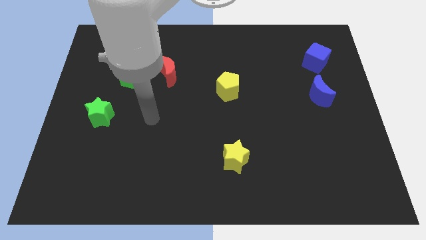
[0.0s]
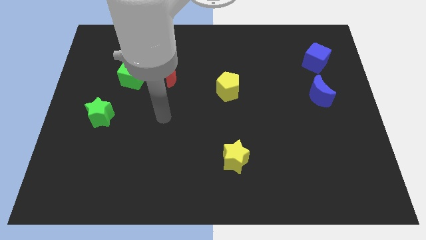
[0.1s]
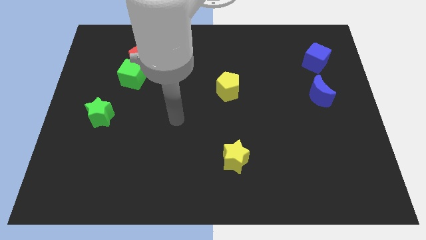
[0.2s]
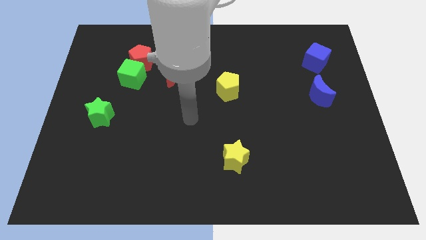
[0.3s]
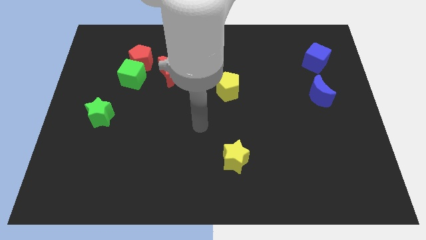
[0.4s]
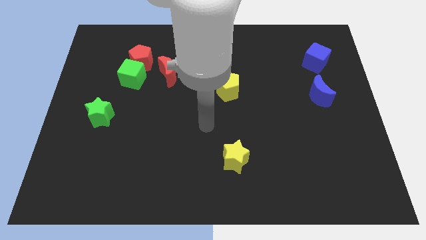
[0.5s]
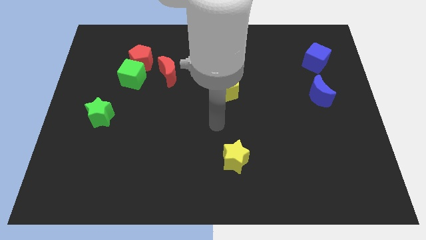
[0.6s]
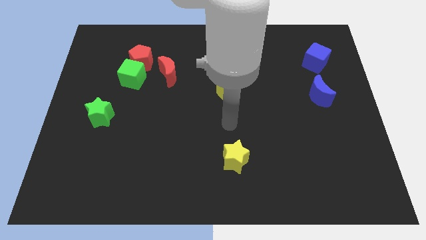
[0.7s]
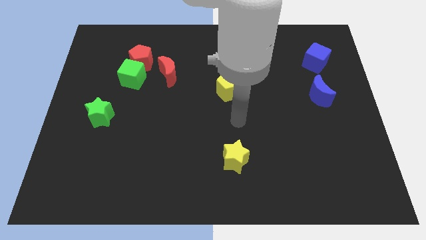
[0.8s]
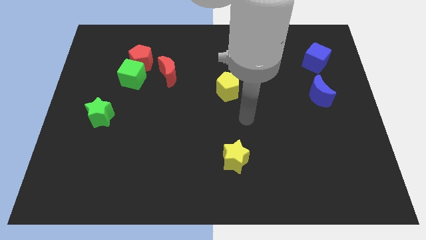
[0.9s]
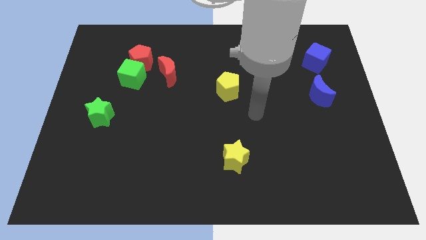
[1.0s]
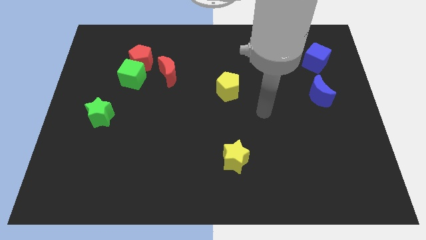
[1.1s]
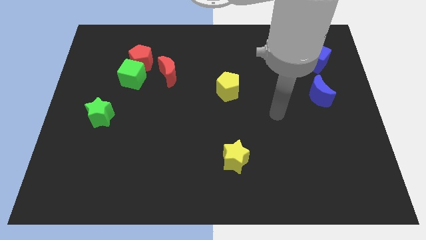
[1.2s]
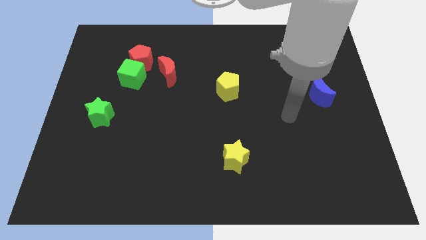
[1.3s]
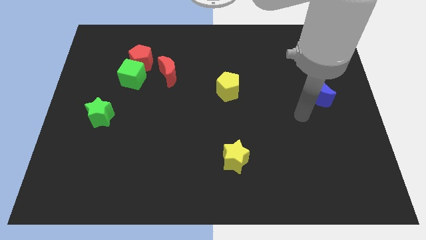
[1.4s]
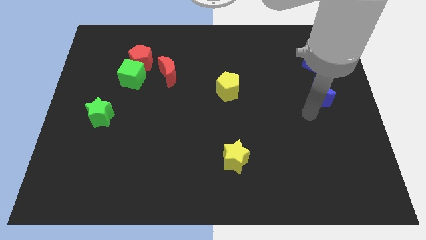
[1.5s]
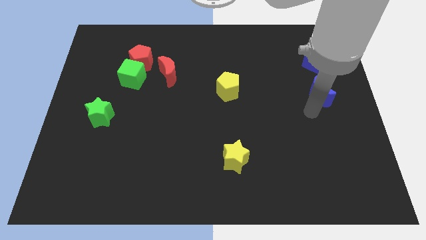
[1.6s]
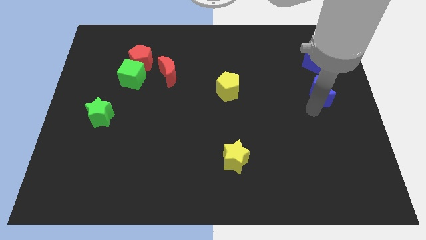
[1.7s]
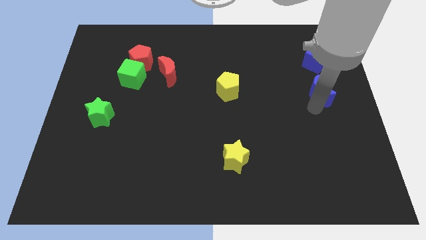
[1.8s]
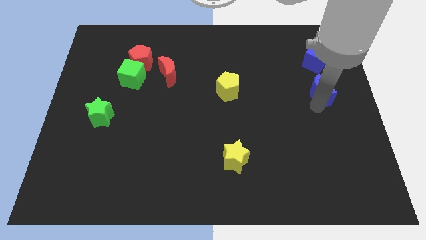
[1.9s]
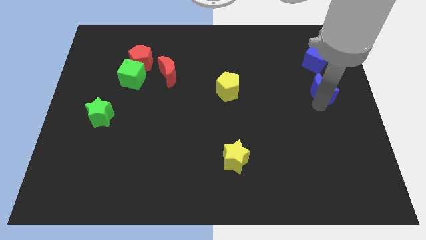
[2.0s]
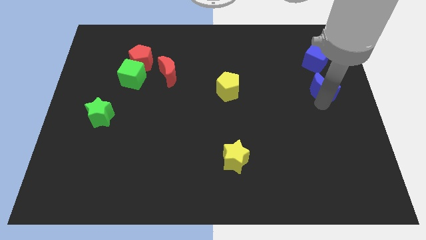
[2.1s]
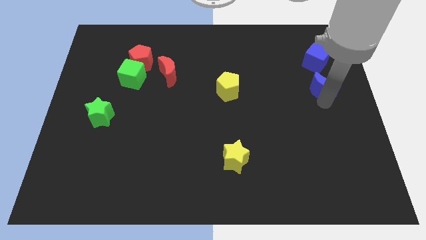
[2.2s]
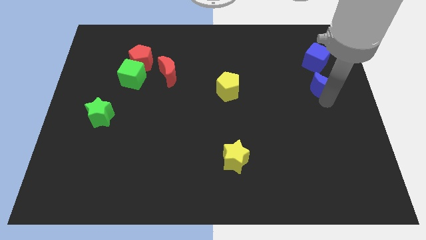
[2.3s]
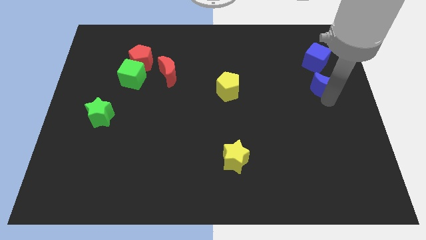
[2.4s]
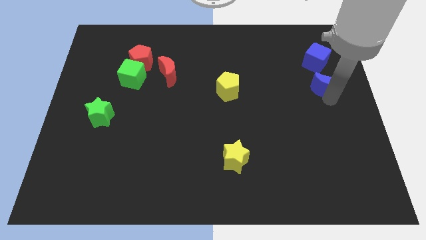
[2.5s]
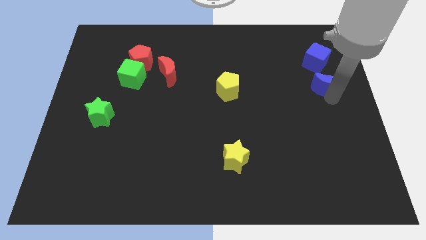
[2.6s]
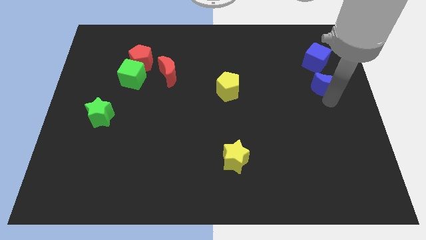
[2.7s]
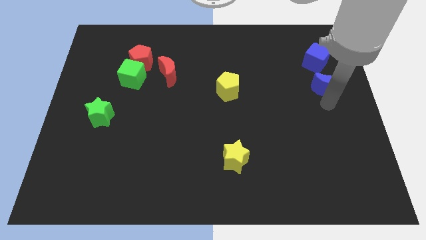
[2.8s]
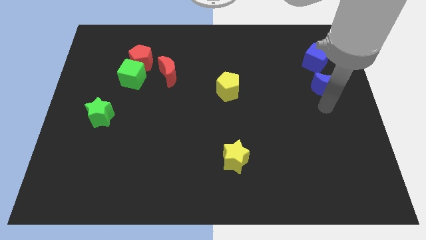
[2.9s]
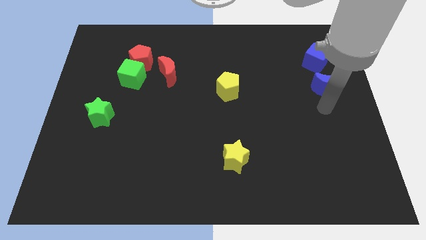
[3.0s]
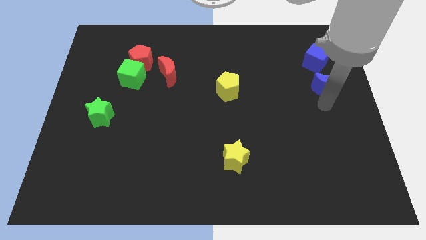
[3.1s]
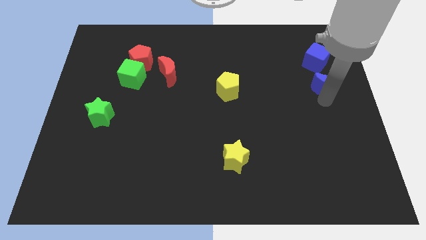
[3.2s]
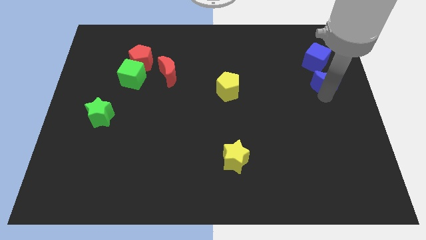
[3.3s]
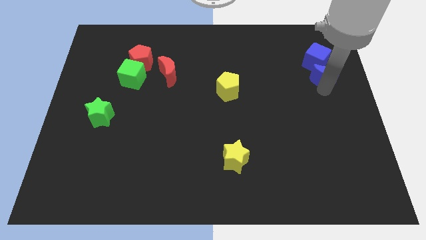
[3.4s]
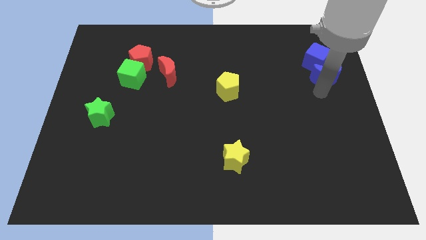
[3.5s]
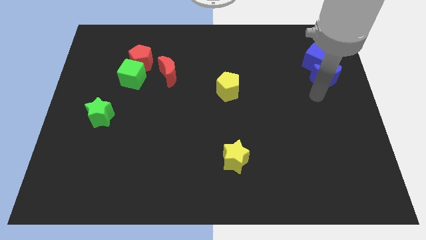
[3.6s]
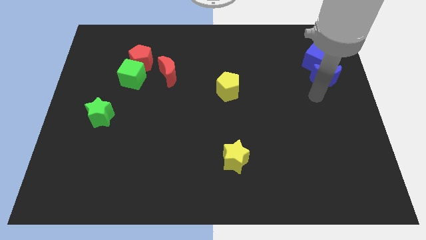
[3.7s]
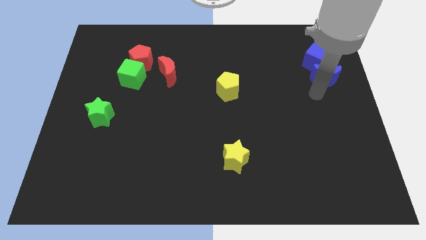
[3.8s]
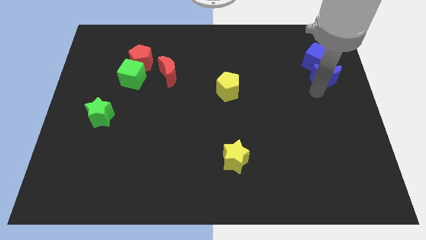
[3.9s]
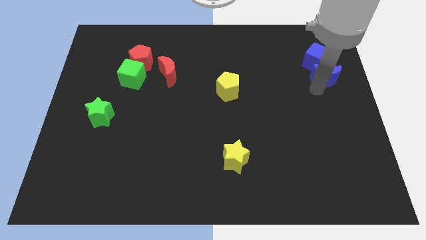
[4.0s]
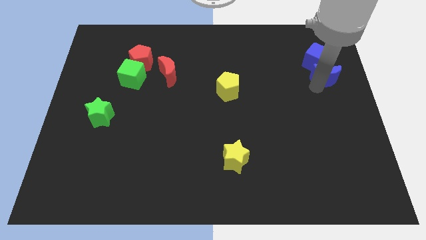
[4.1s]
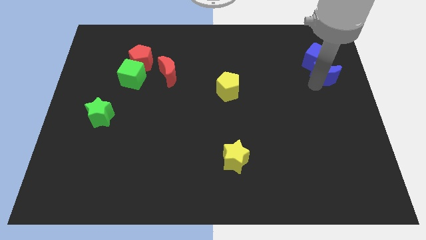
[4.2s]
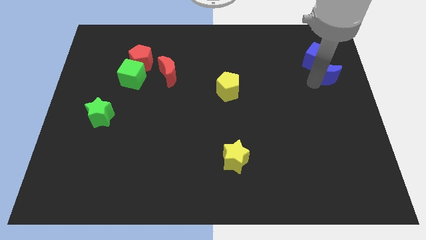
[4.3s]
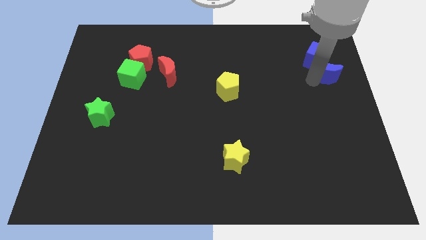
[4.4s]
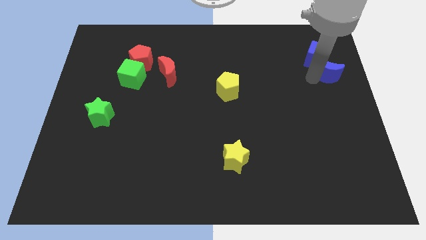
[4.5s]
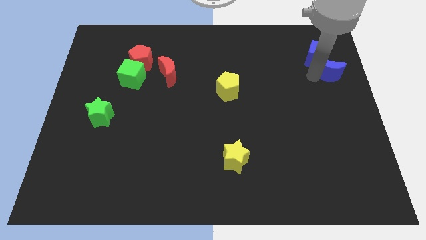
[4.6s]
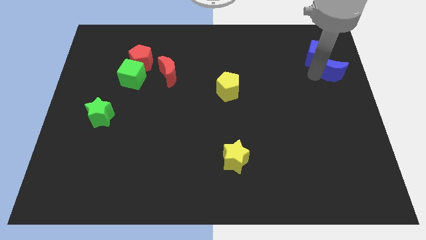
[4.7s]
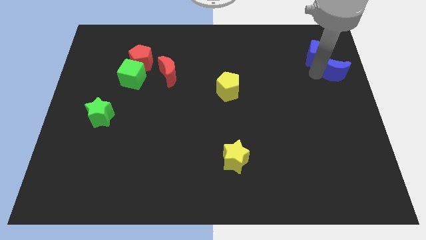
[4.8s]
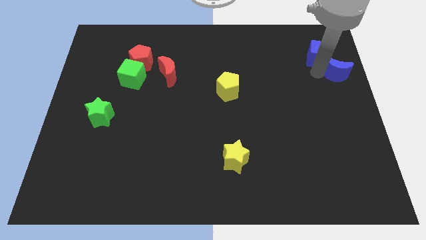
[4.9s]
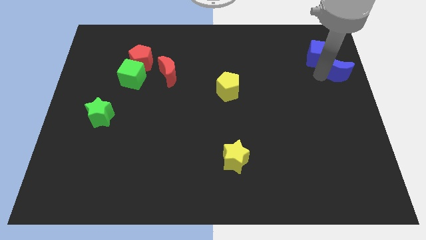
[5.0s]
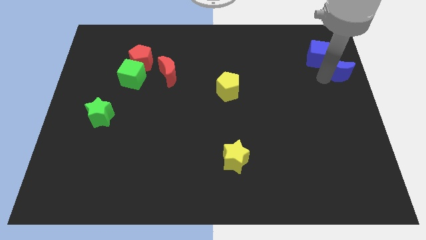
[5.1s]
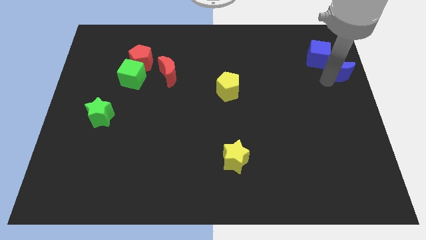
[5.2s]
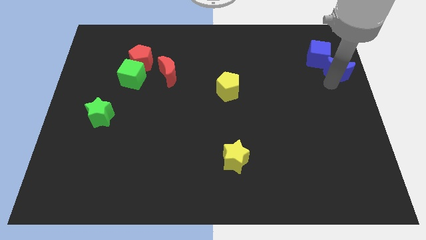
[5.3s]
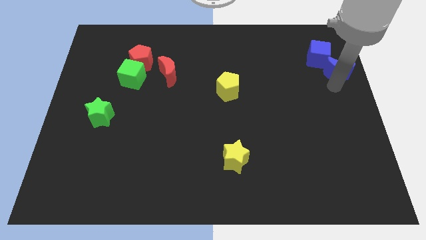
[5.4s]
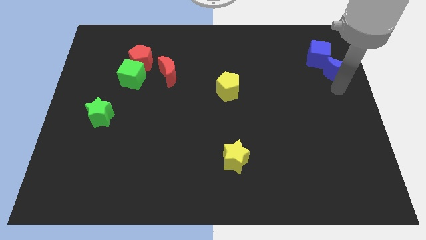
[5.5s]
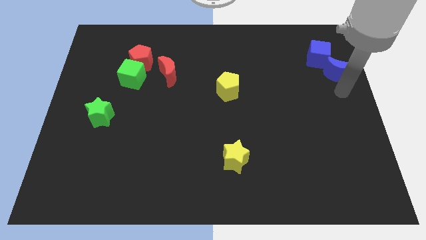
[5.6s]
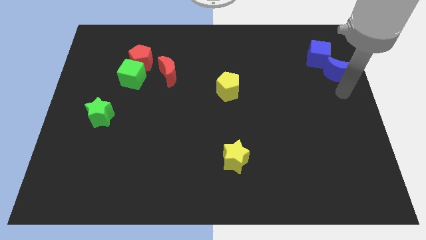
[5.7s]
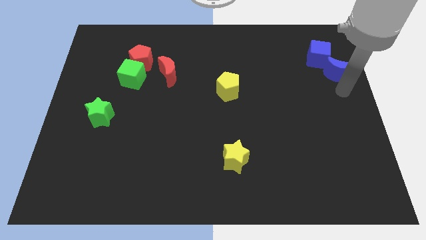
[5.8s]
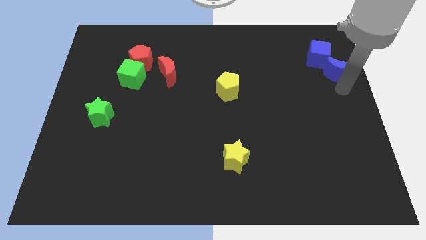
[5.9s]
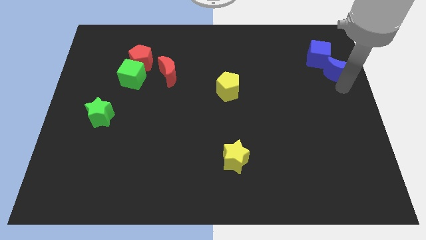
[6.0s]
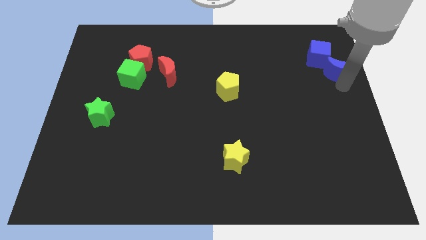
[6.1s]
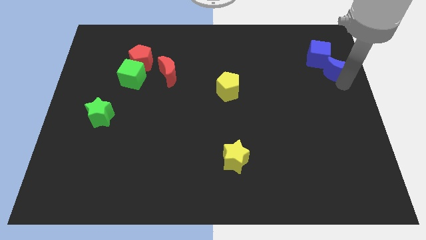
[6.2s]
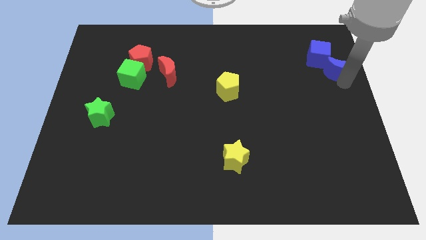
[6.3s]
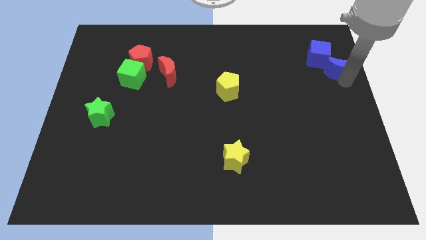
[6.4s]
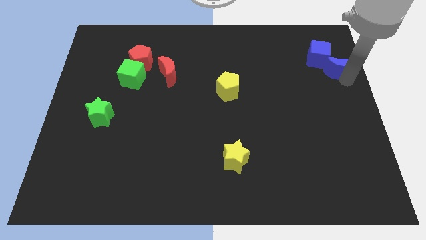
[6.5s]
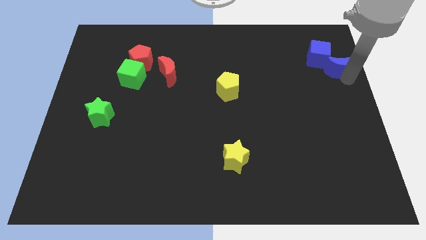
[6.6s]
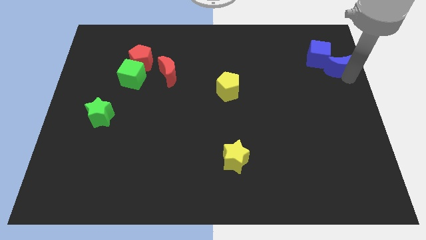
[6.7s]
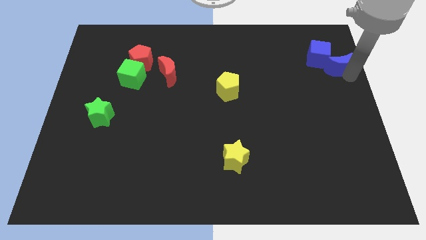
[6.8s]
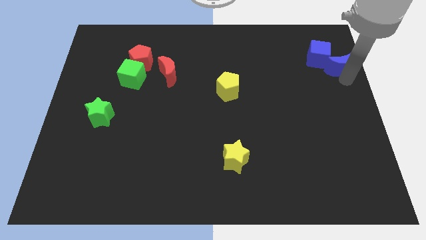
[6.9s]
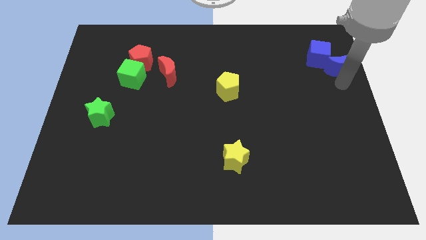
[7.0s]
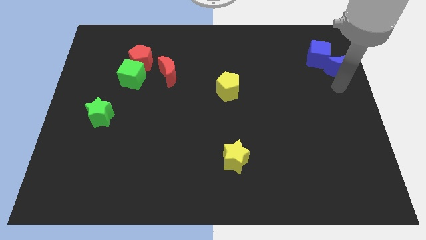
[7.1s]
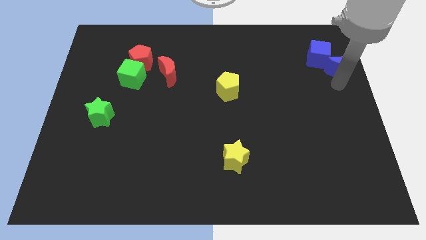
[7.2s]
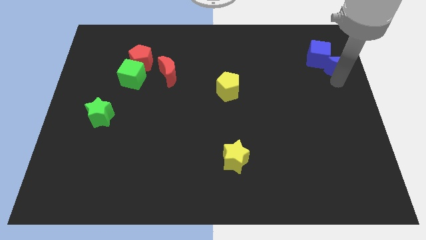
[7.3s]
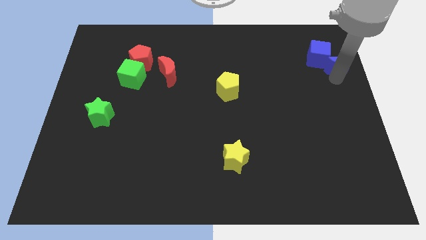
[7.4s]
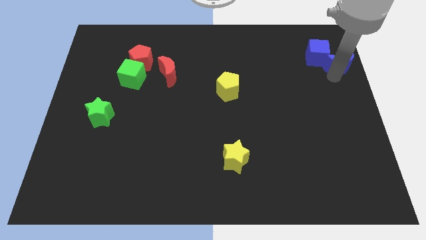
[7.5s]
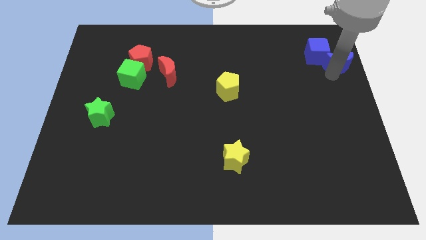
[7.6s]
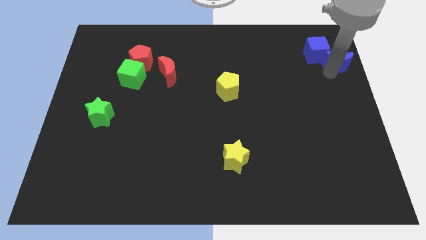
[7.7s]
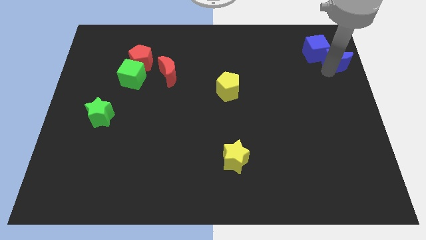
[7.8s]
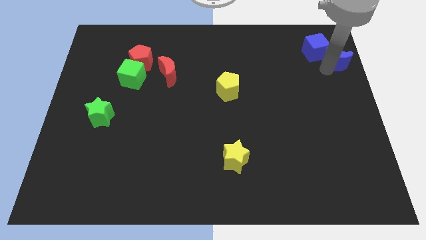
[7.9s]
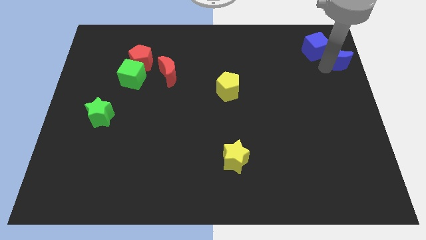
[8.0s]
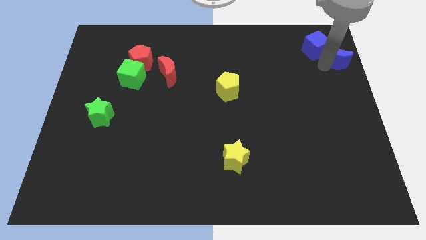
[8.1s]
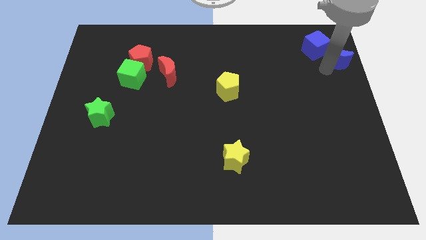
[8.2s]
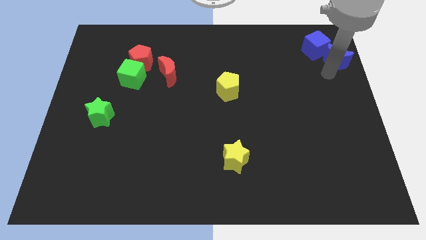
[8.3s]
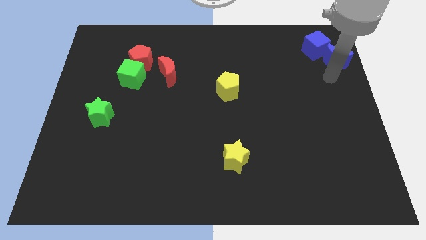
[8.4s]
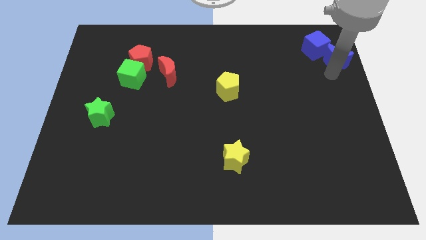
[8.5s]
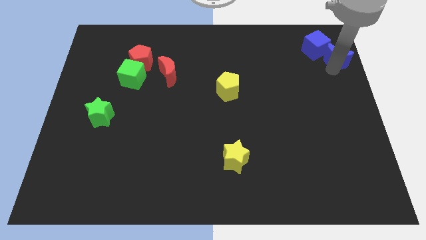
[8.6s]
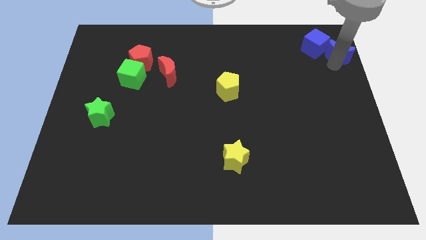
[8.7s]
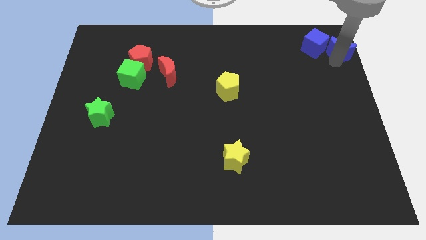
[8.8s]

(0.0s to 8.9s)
move the blue moon to the top right of the board
